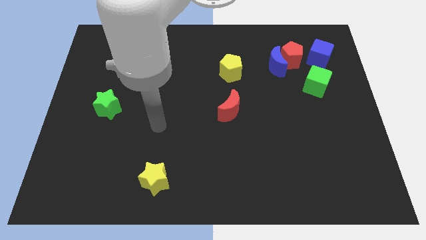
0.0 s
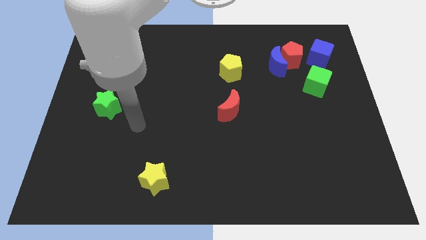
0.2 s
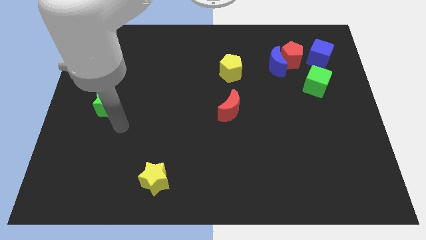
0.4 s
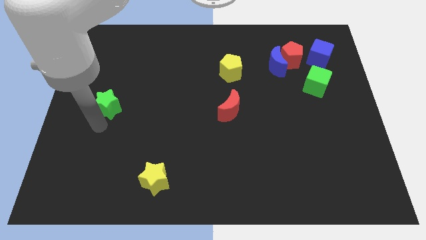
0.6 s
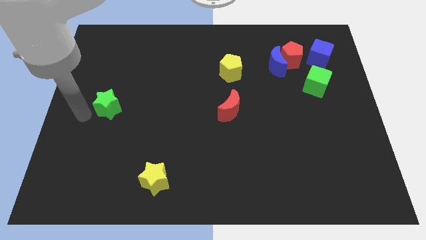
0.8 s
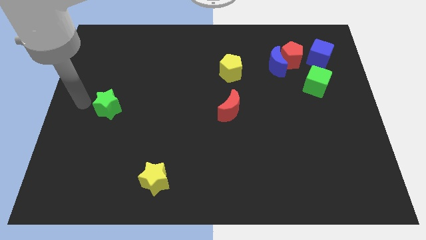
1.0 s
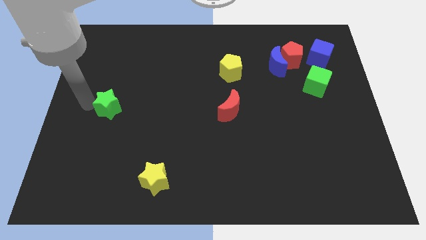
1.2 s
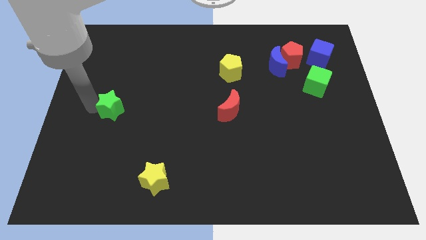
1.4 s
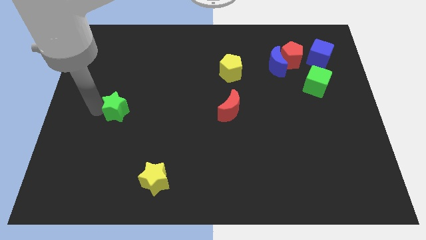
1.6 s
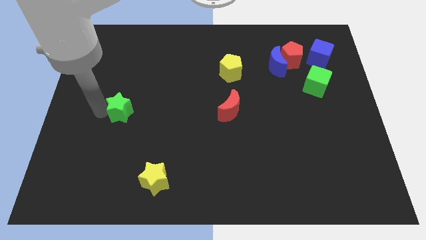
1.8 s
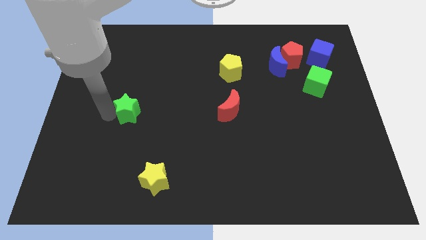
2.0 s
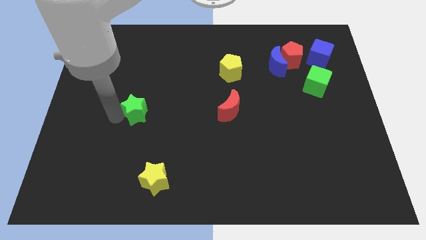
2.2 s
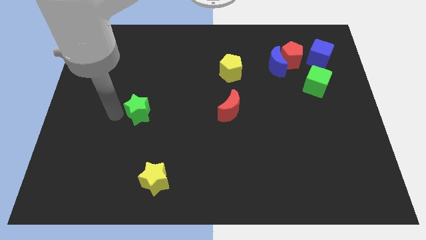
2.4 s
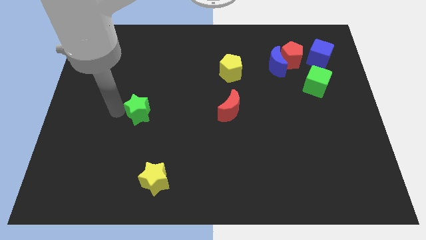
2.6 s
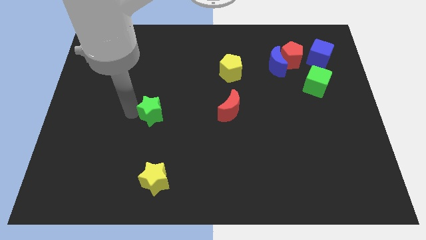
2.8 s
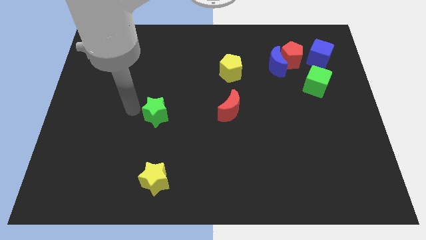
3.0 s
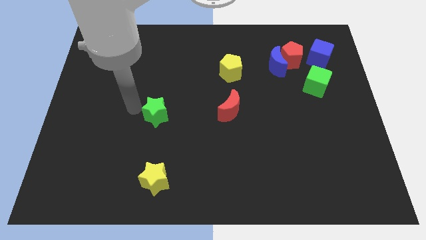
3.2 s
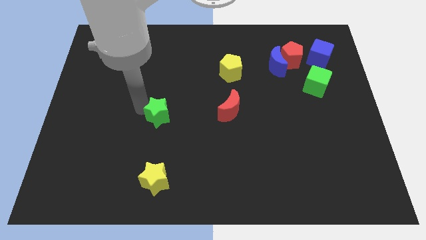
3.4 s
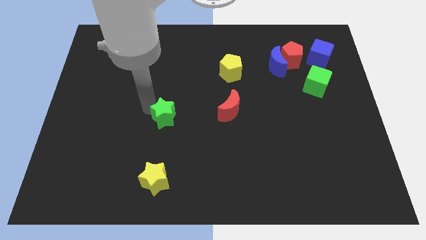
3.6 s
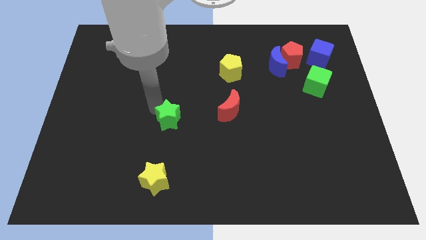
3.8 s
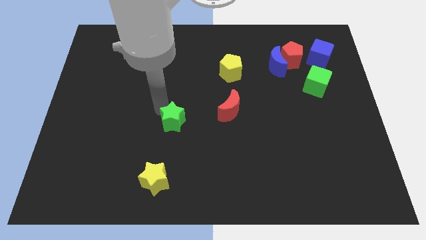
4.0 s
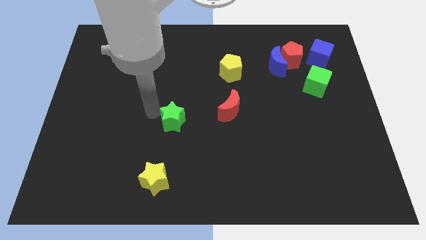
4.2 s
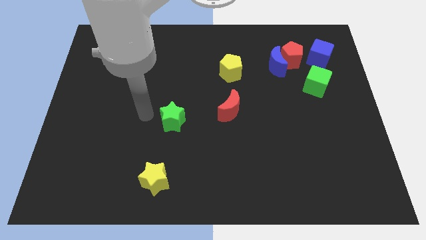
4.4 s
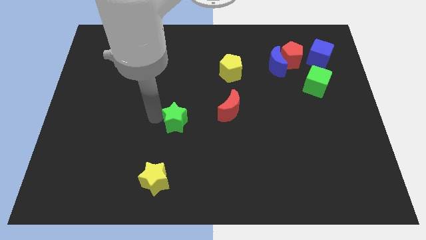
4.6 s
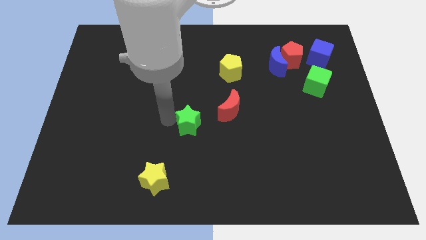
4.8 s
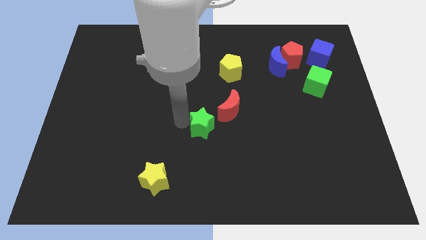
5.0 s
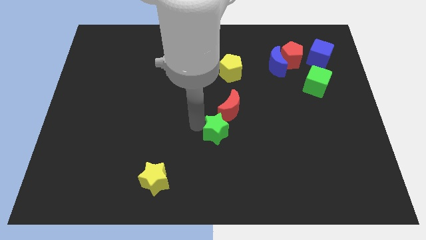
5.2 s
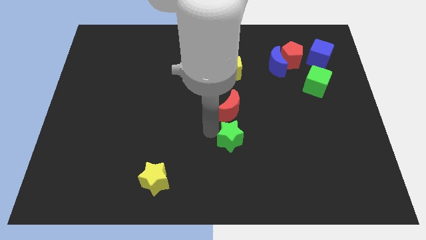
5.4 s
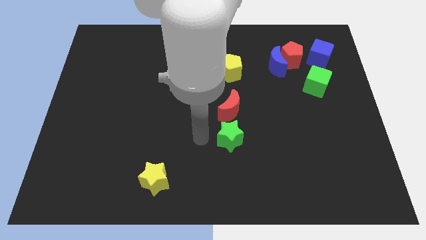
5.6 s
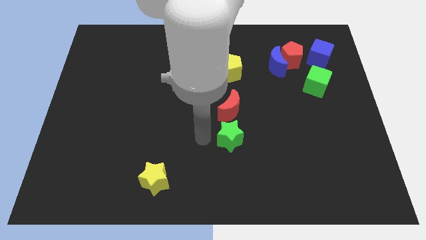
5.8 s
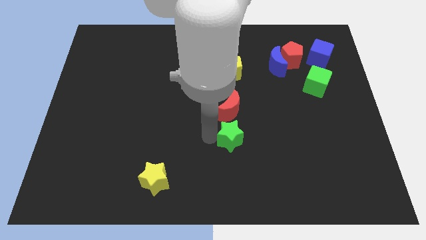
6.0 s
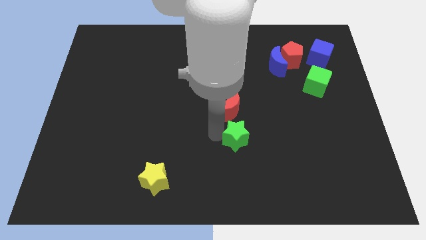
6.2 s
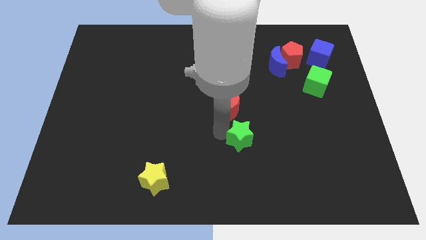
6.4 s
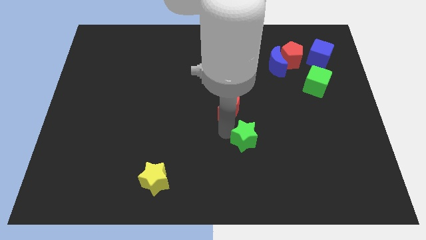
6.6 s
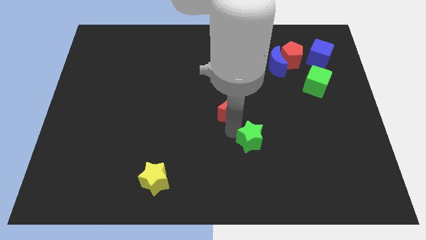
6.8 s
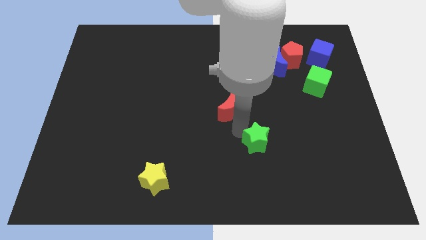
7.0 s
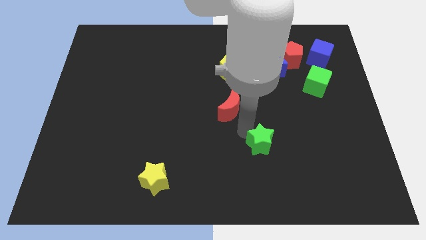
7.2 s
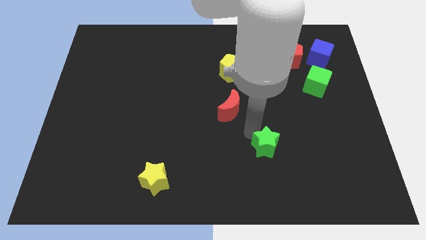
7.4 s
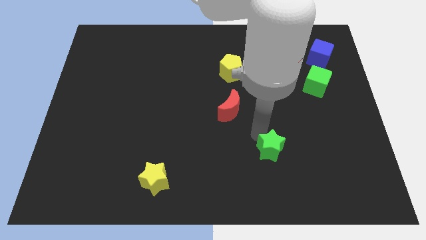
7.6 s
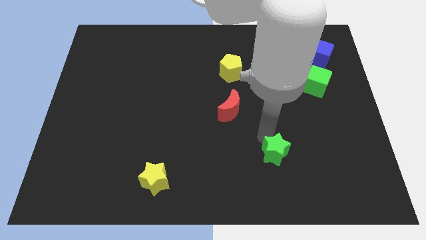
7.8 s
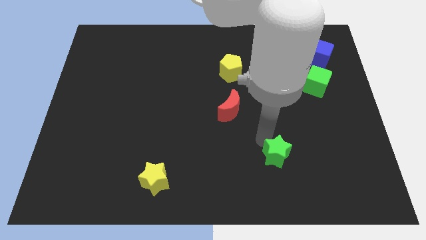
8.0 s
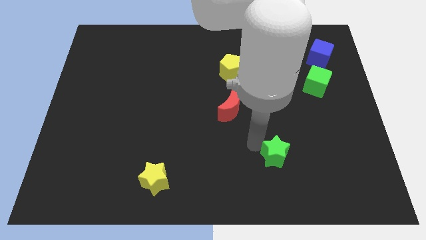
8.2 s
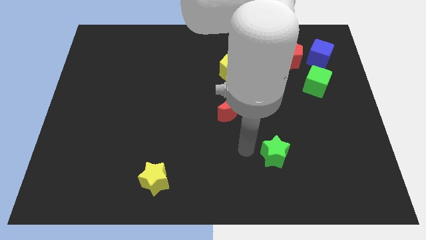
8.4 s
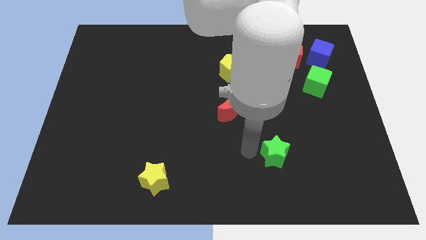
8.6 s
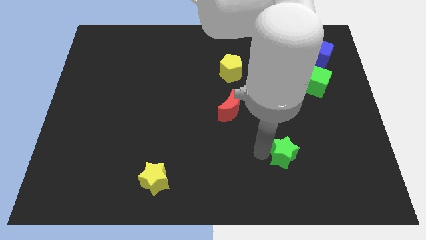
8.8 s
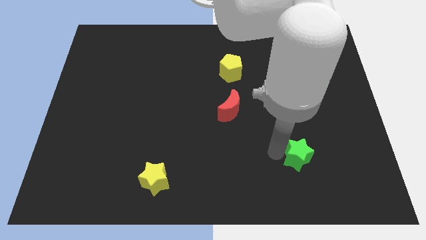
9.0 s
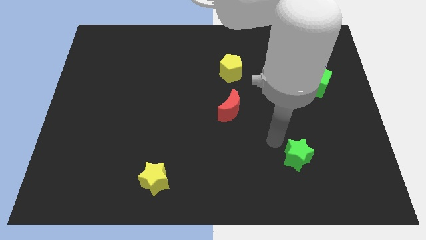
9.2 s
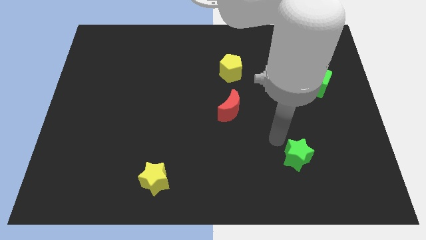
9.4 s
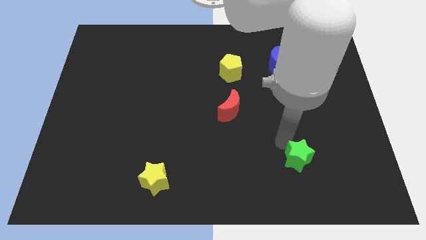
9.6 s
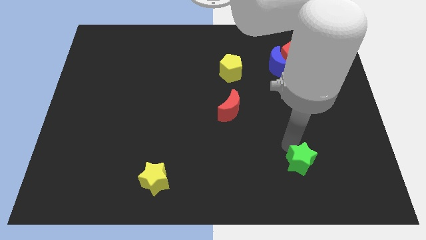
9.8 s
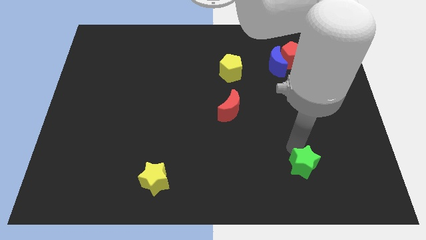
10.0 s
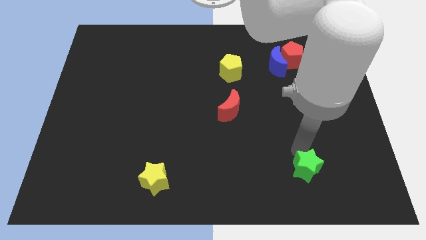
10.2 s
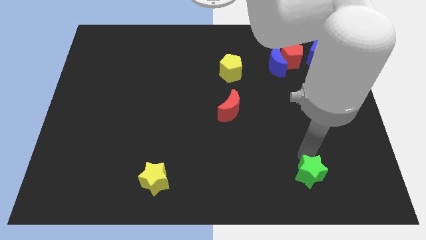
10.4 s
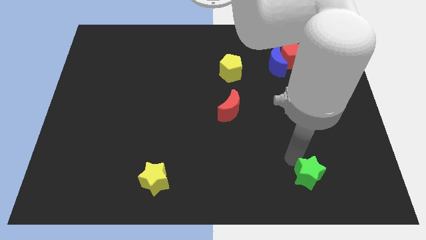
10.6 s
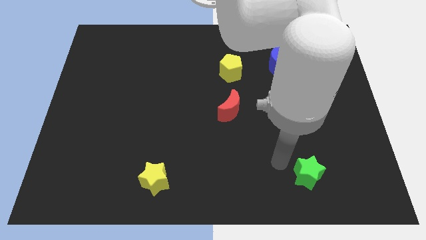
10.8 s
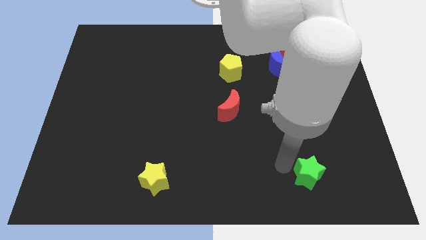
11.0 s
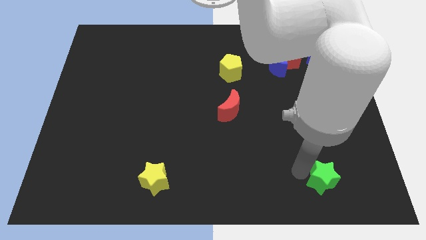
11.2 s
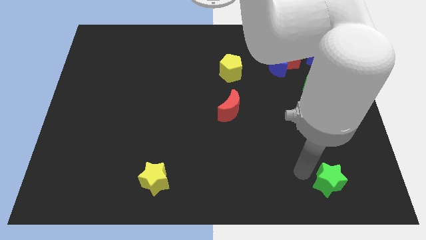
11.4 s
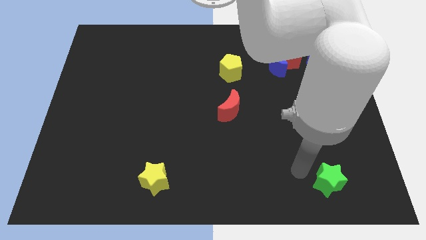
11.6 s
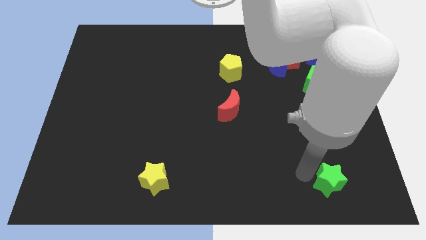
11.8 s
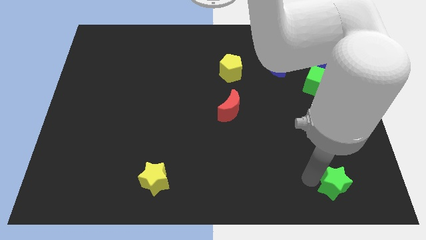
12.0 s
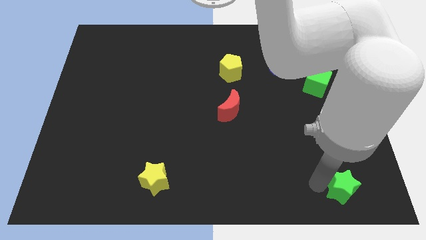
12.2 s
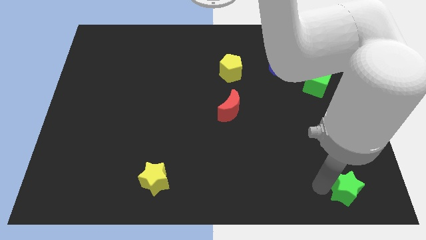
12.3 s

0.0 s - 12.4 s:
push the green star to the bottom right
